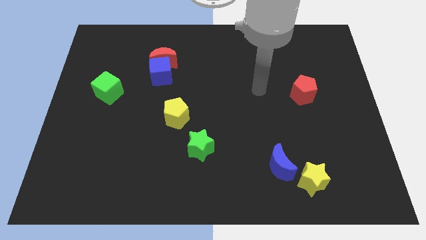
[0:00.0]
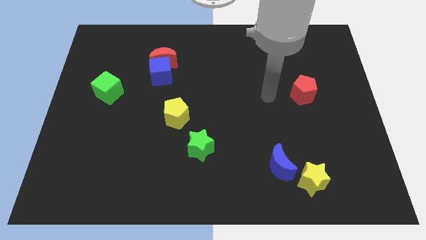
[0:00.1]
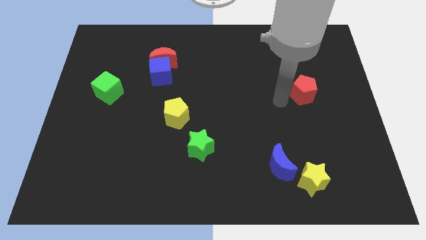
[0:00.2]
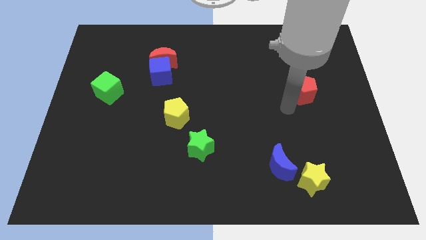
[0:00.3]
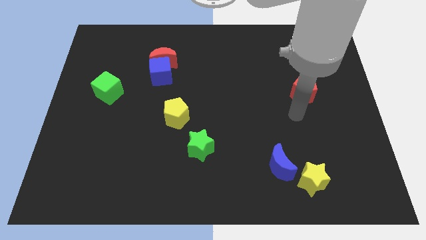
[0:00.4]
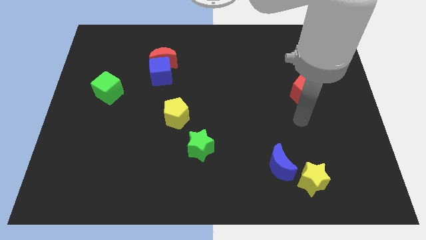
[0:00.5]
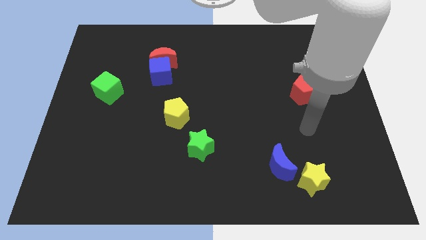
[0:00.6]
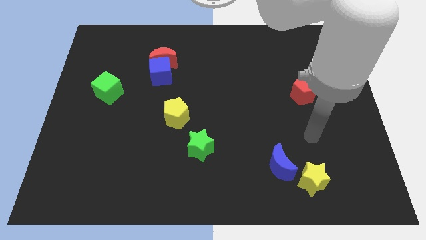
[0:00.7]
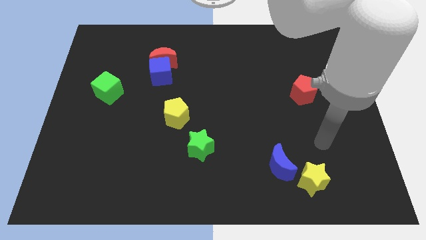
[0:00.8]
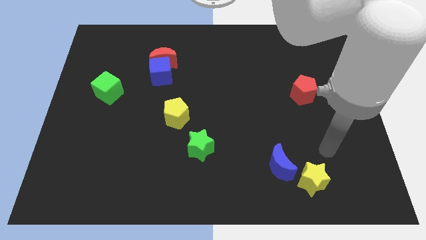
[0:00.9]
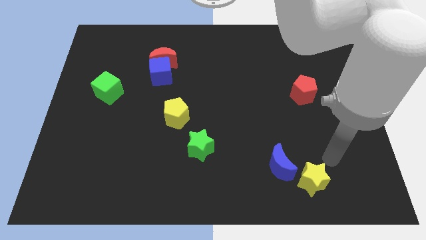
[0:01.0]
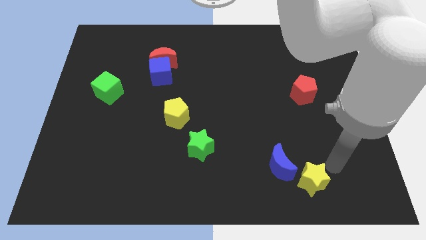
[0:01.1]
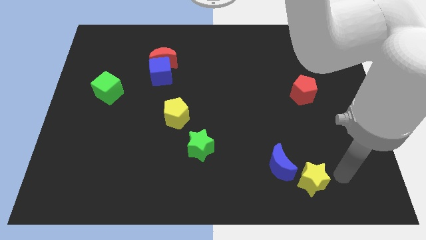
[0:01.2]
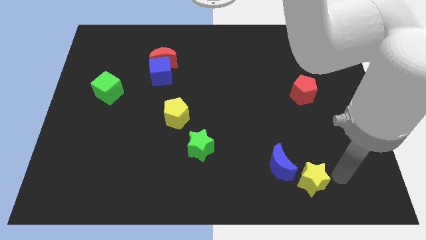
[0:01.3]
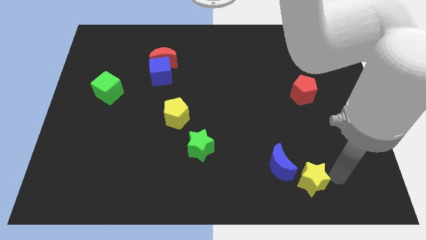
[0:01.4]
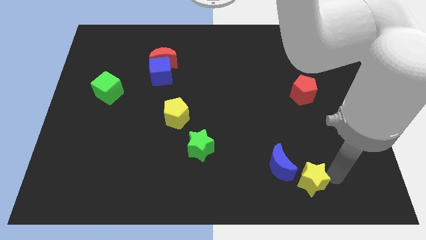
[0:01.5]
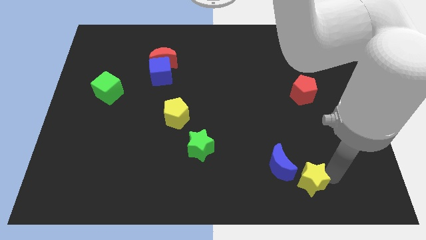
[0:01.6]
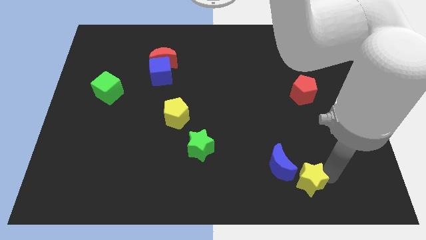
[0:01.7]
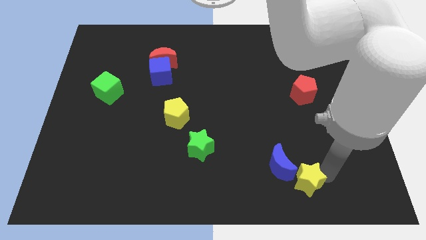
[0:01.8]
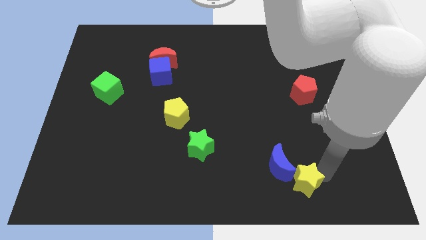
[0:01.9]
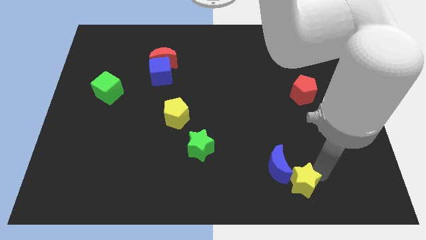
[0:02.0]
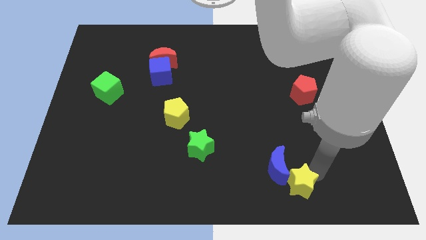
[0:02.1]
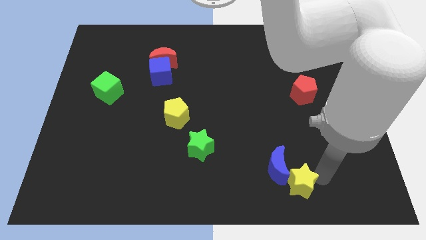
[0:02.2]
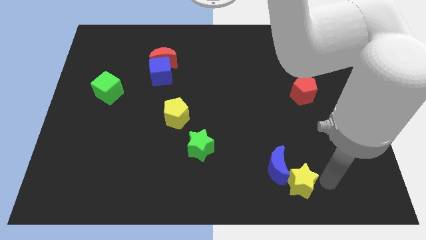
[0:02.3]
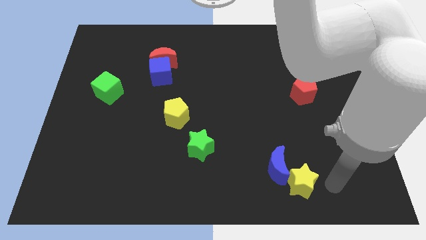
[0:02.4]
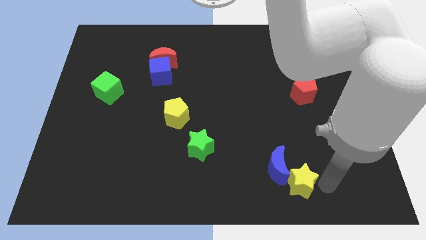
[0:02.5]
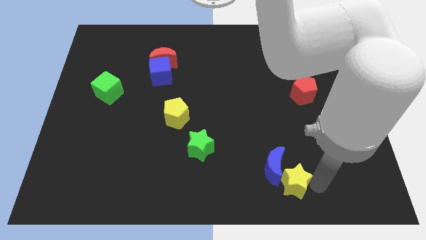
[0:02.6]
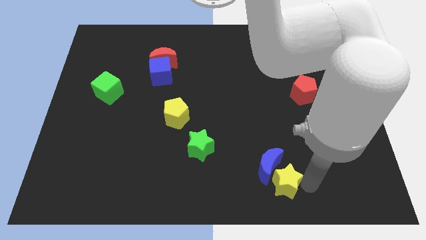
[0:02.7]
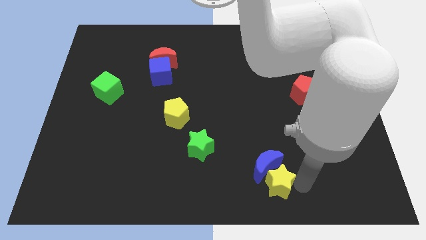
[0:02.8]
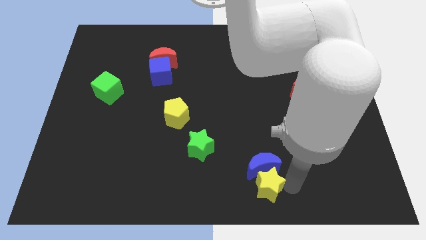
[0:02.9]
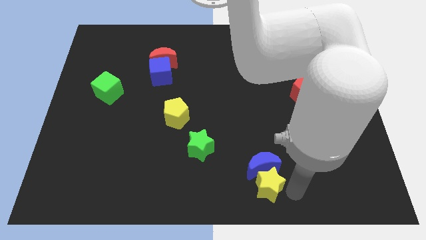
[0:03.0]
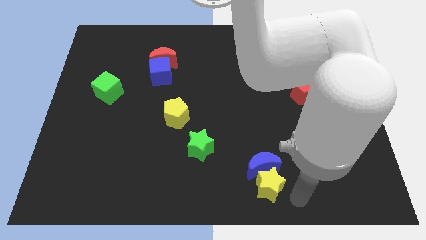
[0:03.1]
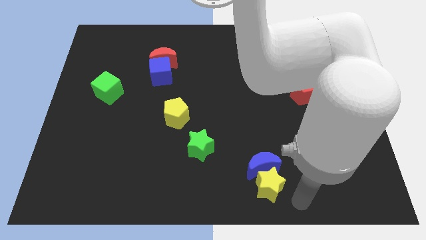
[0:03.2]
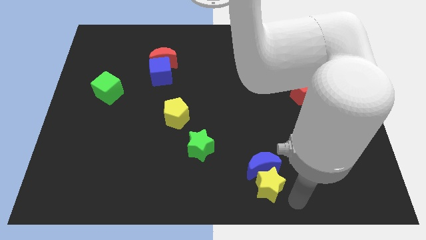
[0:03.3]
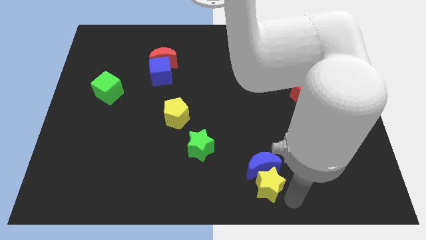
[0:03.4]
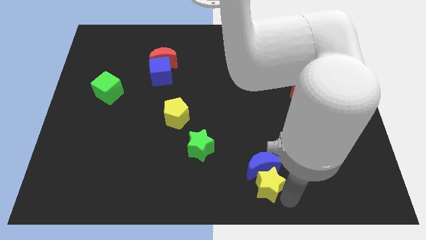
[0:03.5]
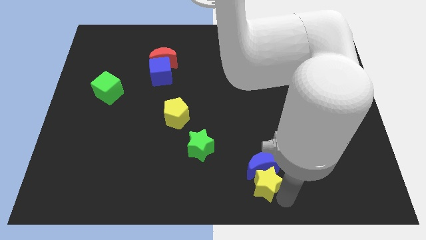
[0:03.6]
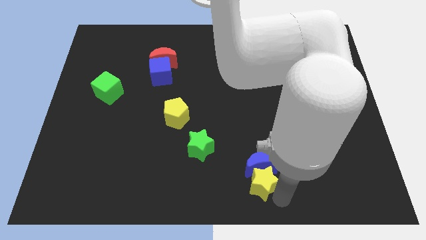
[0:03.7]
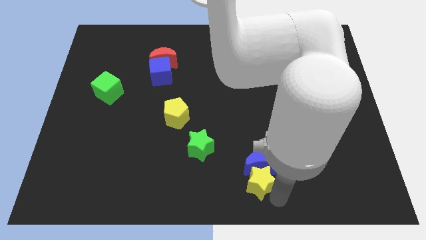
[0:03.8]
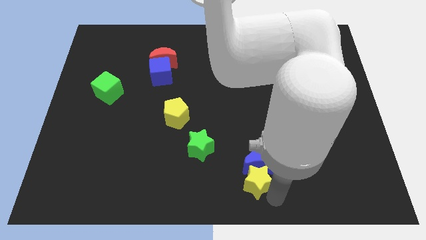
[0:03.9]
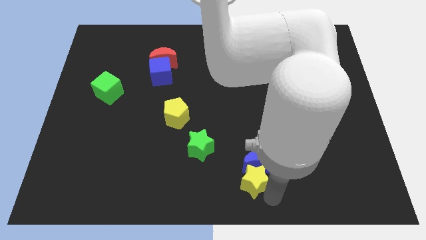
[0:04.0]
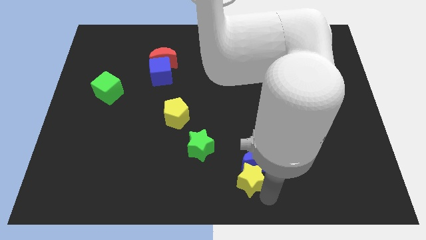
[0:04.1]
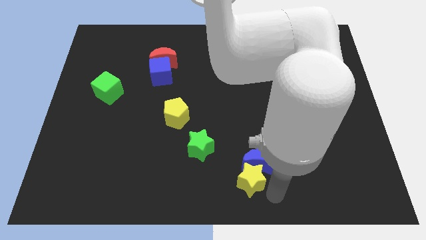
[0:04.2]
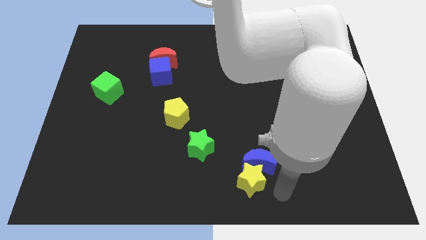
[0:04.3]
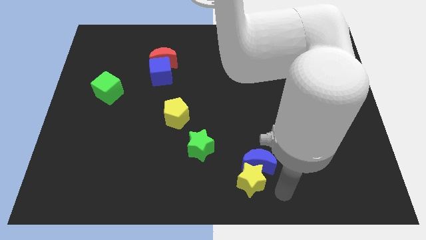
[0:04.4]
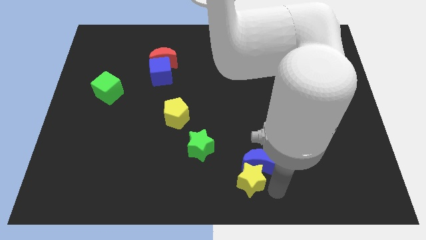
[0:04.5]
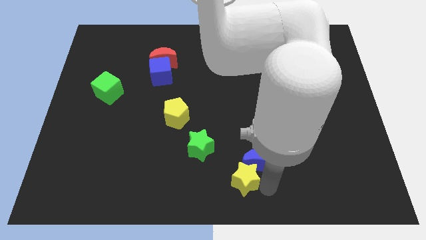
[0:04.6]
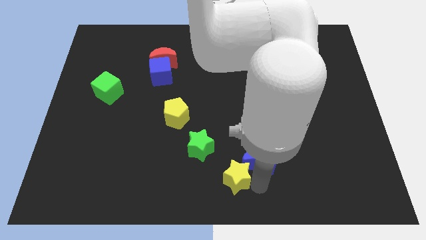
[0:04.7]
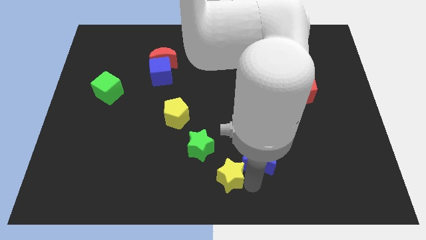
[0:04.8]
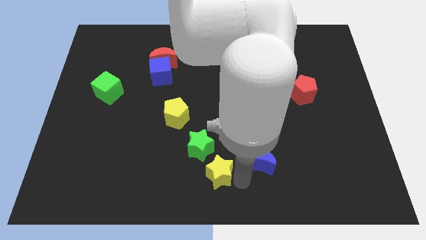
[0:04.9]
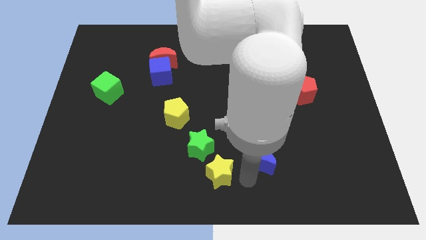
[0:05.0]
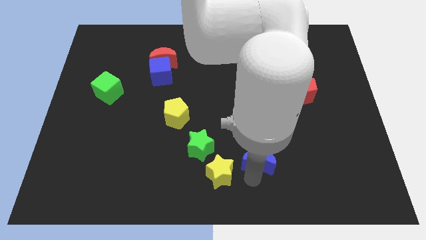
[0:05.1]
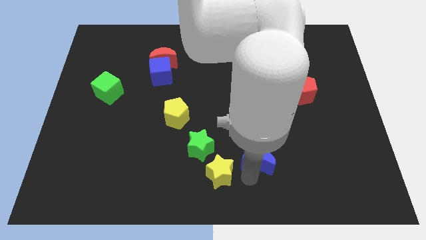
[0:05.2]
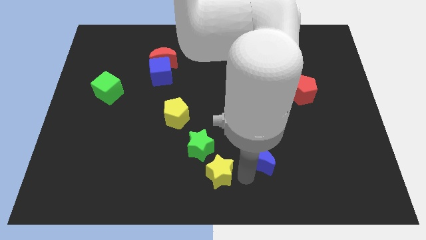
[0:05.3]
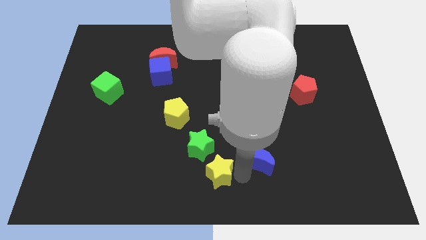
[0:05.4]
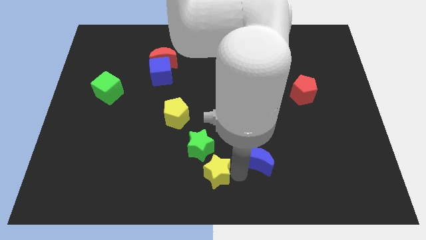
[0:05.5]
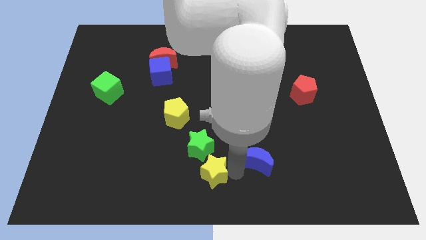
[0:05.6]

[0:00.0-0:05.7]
push the yellow star left

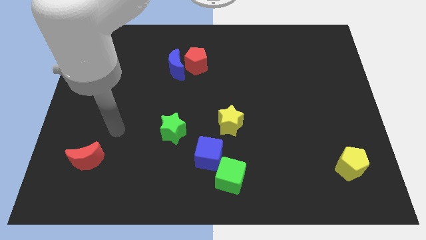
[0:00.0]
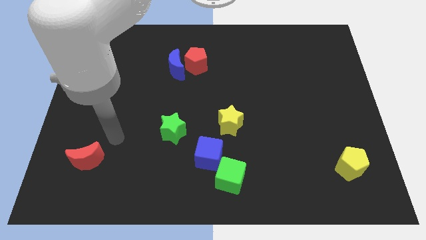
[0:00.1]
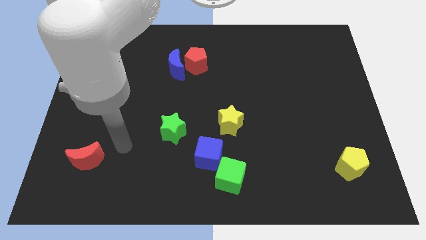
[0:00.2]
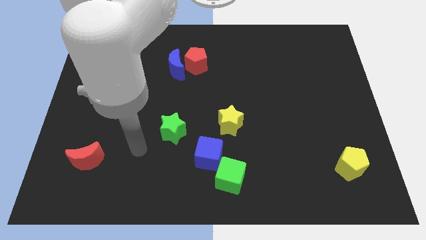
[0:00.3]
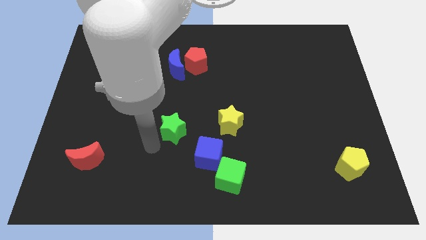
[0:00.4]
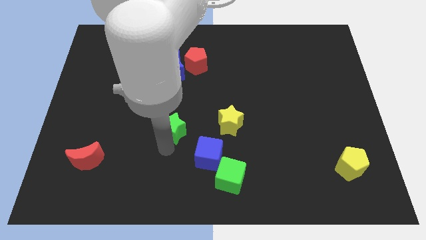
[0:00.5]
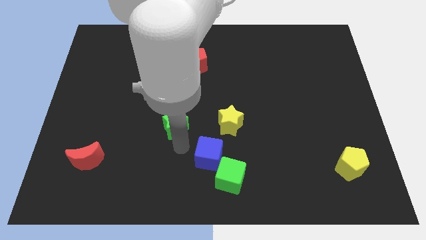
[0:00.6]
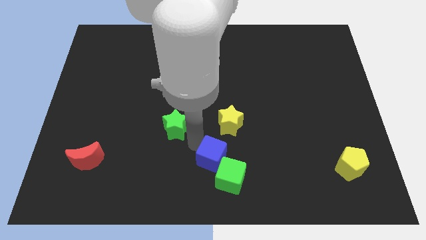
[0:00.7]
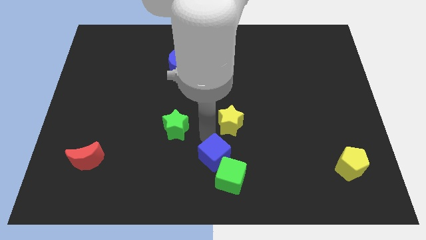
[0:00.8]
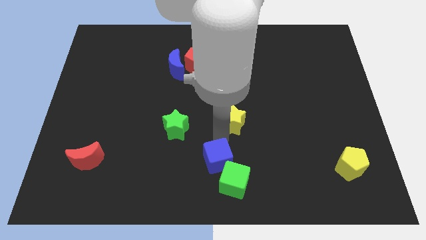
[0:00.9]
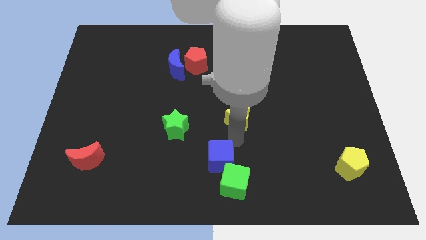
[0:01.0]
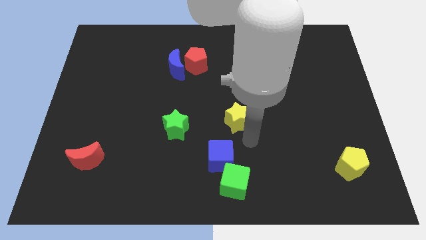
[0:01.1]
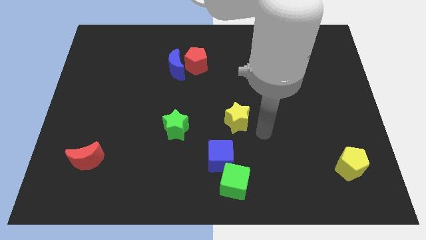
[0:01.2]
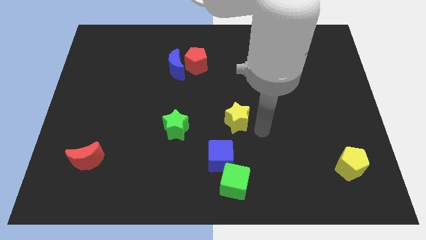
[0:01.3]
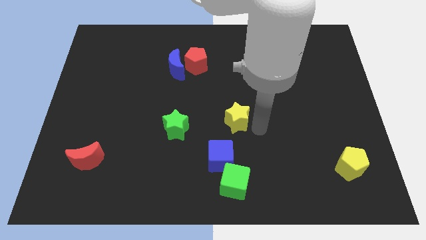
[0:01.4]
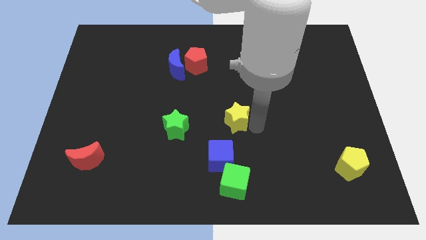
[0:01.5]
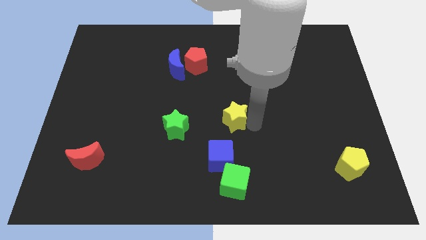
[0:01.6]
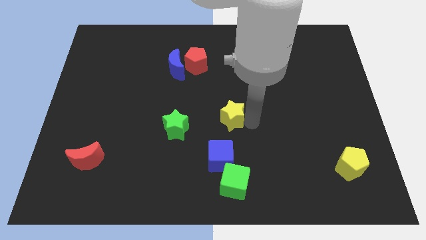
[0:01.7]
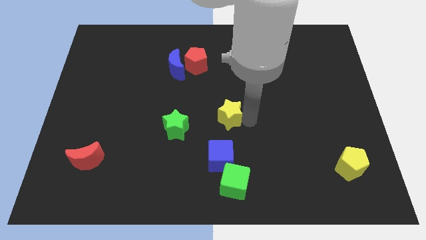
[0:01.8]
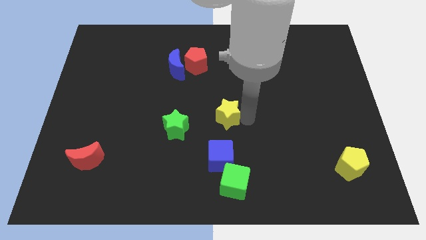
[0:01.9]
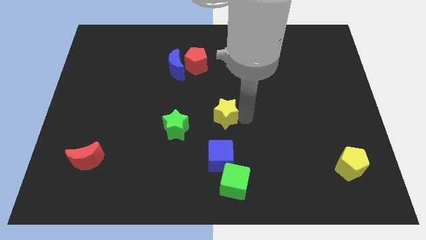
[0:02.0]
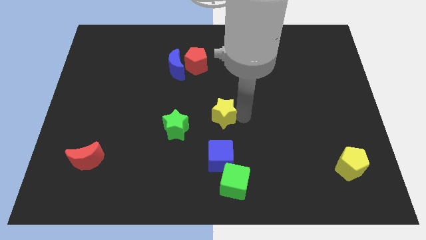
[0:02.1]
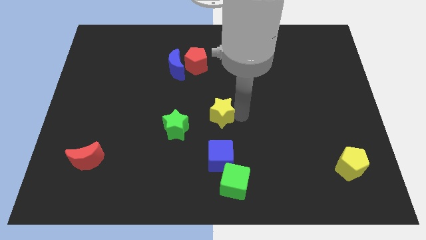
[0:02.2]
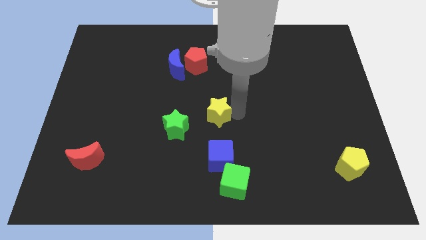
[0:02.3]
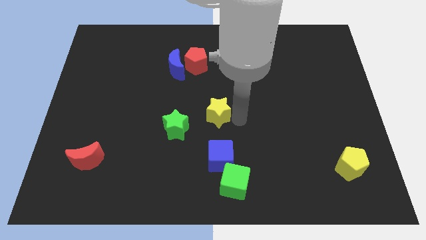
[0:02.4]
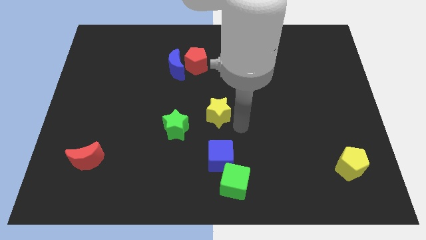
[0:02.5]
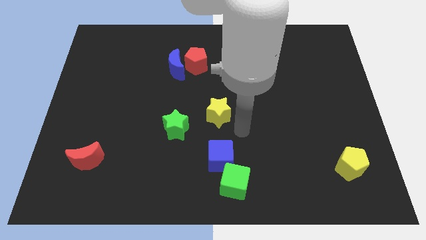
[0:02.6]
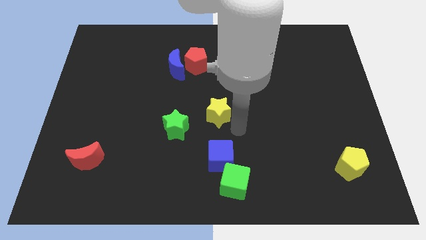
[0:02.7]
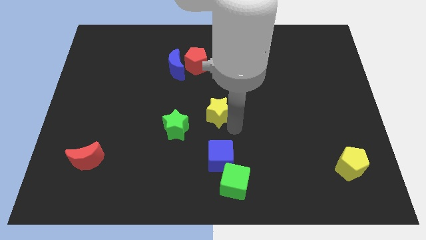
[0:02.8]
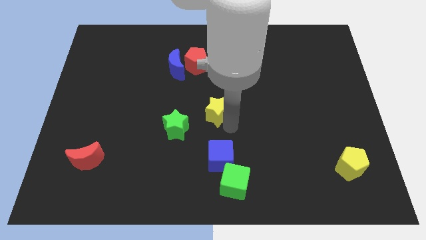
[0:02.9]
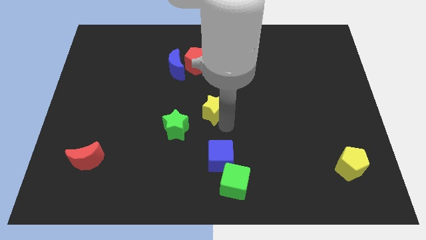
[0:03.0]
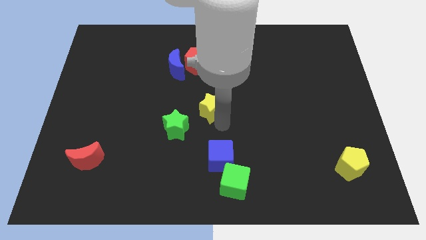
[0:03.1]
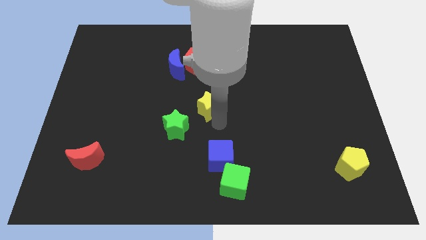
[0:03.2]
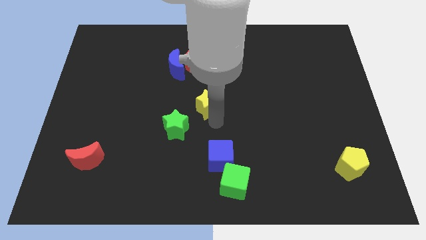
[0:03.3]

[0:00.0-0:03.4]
move the yellow star upwards and to the left diagonally somewhat
